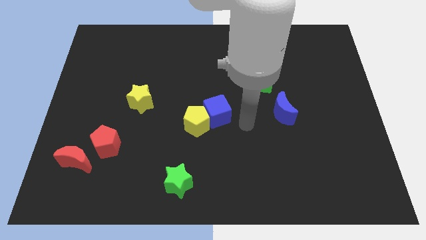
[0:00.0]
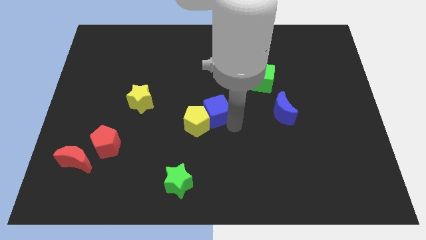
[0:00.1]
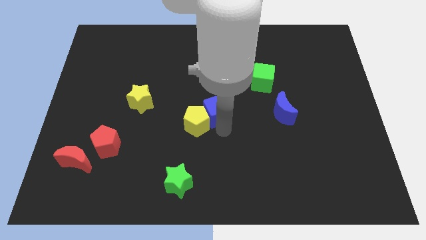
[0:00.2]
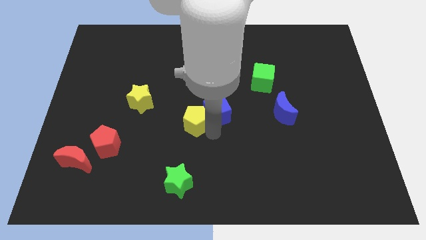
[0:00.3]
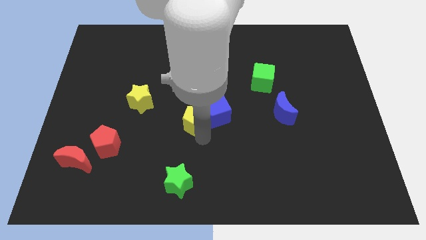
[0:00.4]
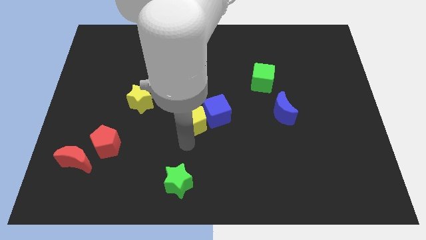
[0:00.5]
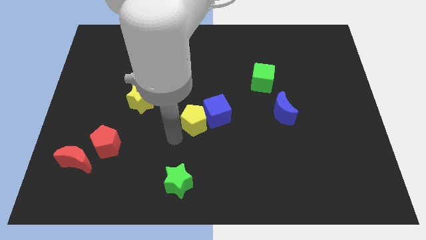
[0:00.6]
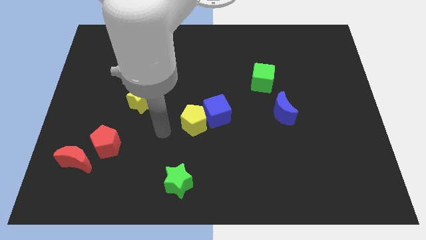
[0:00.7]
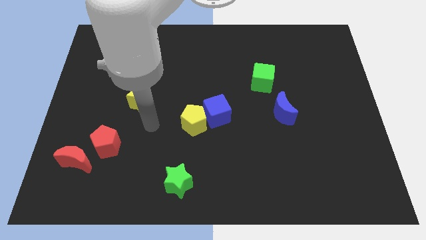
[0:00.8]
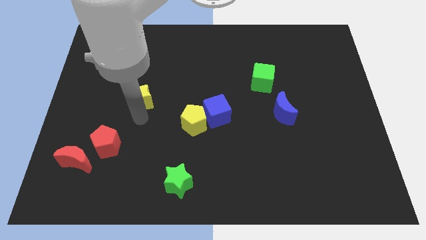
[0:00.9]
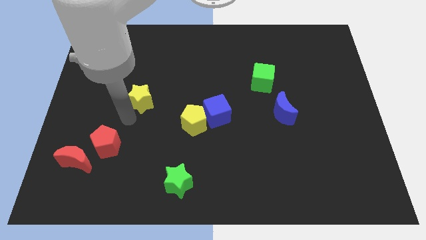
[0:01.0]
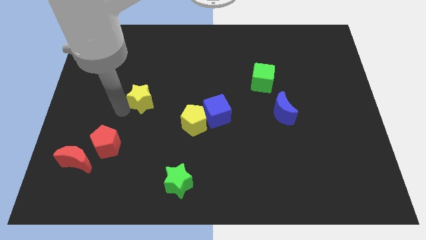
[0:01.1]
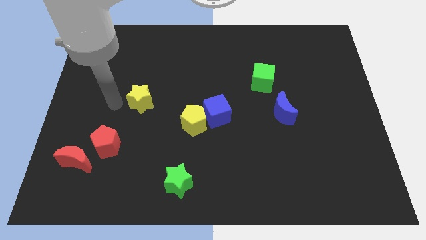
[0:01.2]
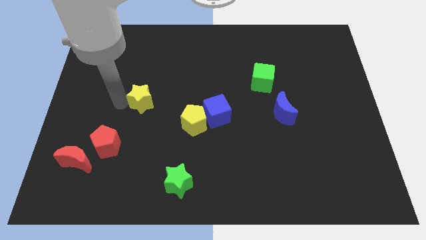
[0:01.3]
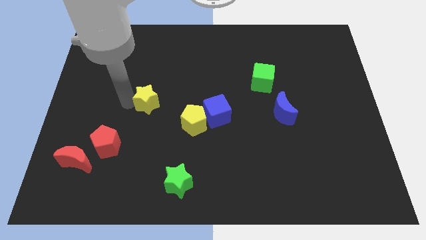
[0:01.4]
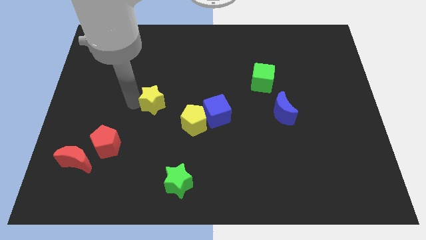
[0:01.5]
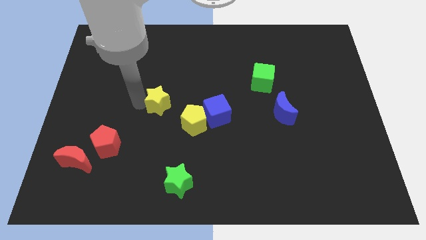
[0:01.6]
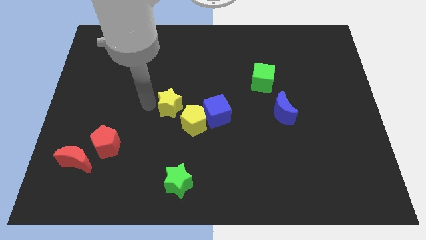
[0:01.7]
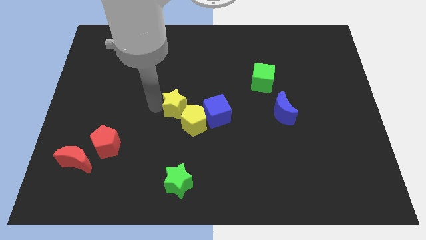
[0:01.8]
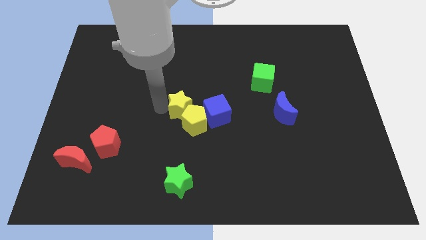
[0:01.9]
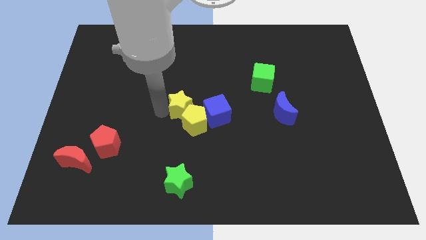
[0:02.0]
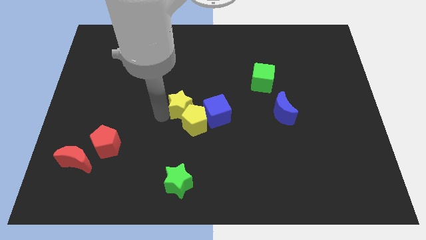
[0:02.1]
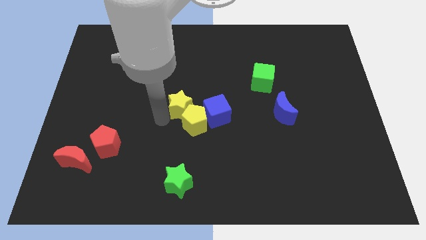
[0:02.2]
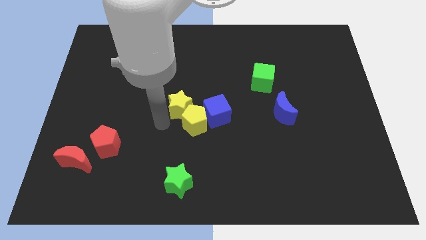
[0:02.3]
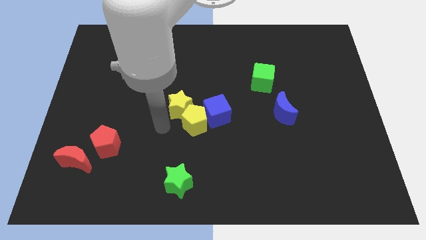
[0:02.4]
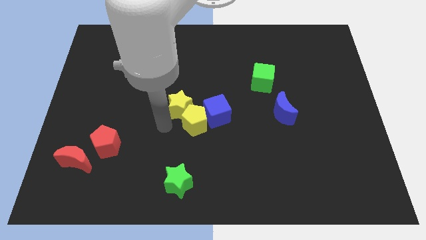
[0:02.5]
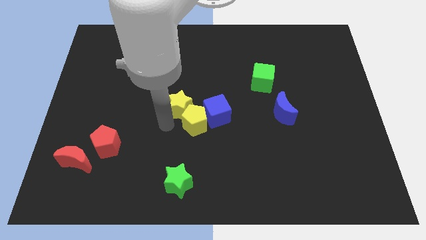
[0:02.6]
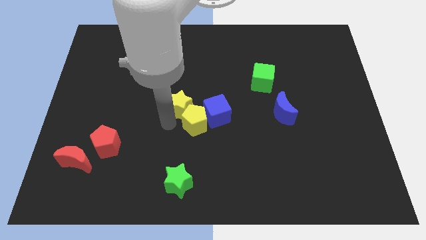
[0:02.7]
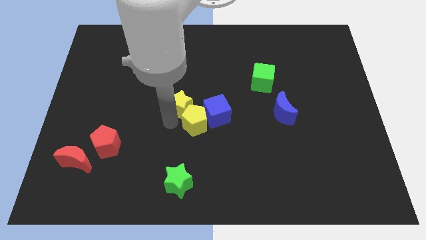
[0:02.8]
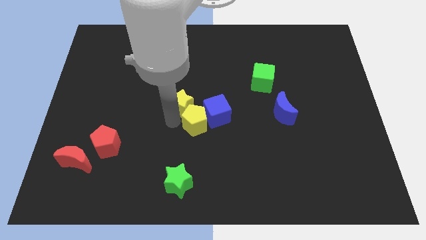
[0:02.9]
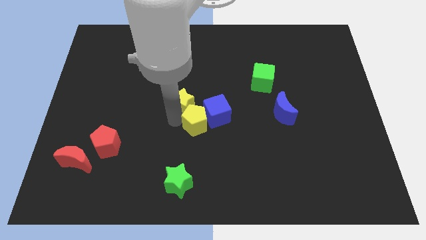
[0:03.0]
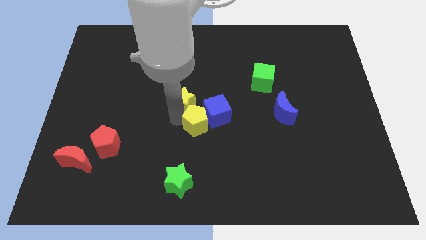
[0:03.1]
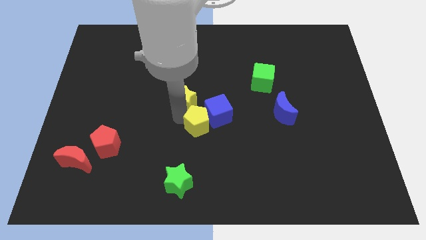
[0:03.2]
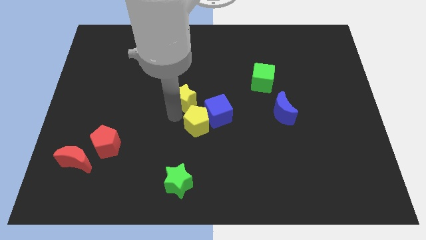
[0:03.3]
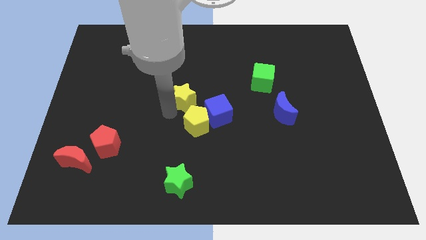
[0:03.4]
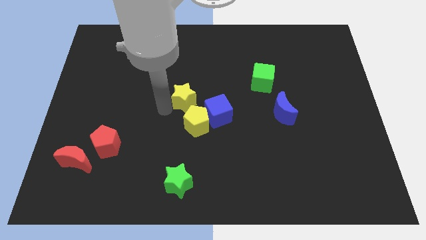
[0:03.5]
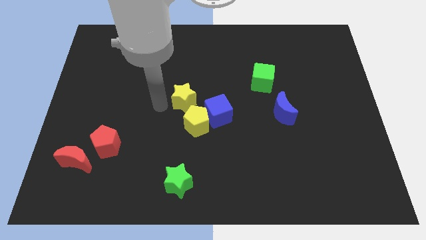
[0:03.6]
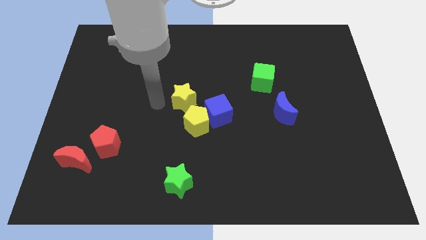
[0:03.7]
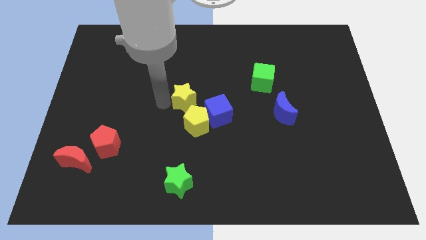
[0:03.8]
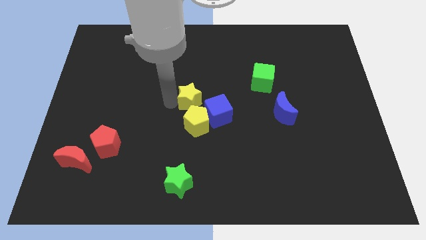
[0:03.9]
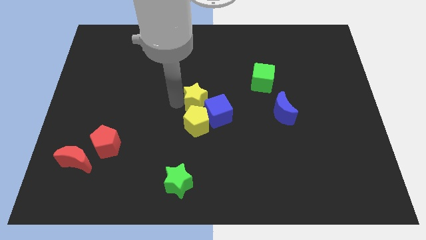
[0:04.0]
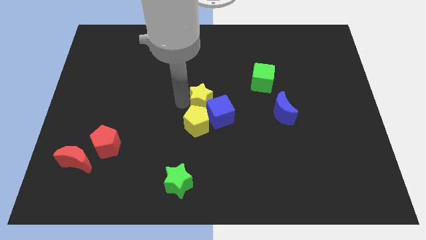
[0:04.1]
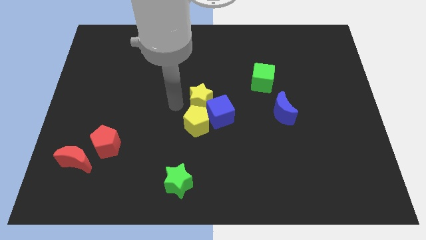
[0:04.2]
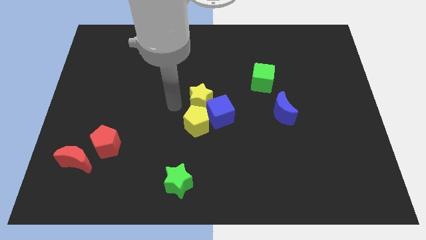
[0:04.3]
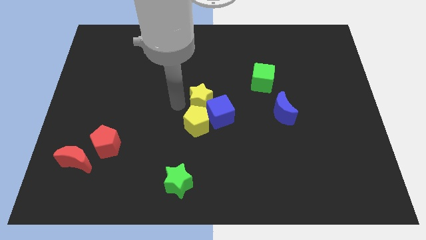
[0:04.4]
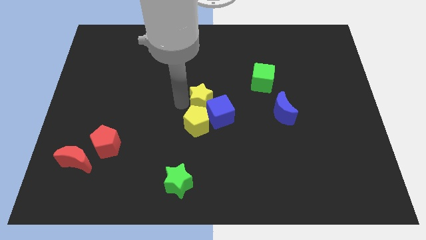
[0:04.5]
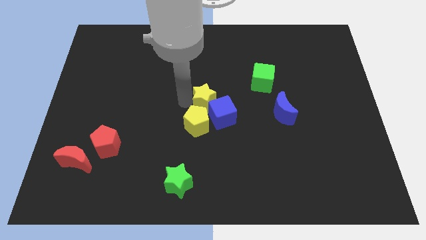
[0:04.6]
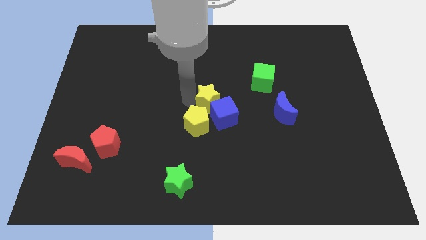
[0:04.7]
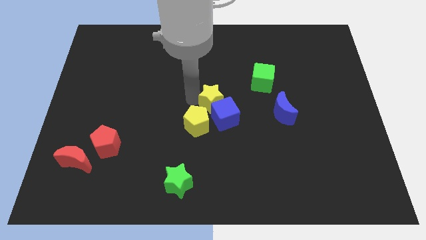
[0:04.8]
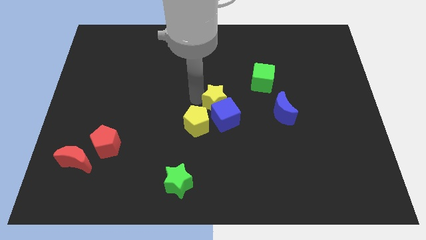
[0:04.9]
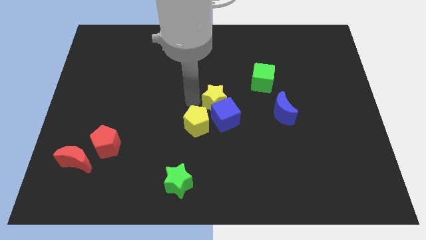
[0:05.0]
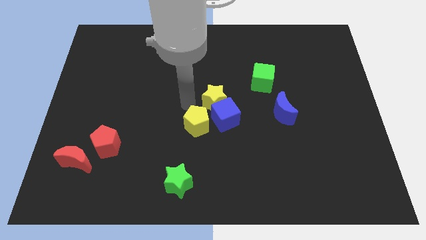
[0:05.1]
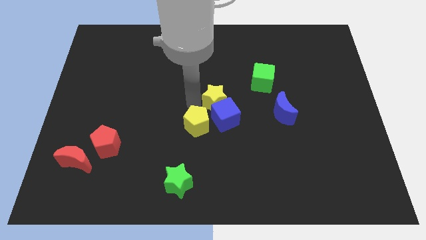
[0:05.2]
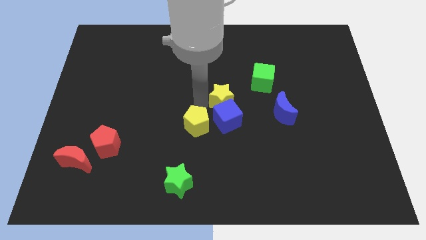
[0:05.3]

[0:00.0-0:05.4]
push the yellow star to the top right of the blue cube

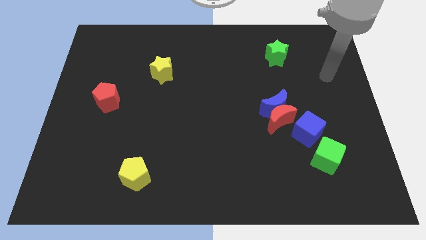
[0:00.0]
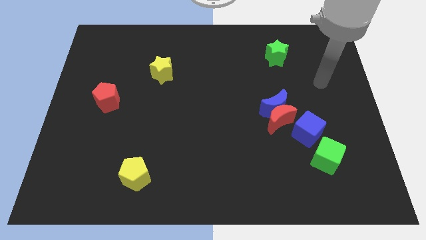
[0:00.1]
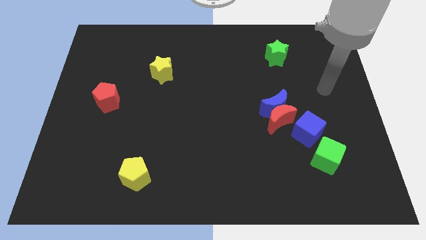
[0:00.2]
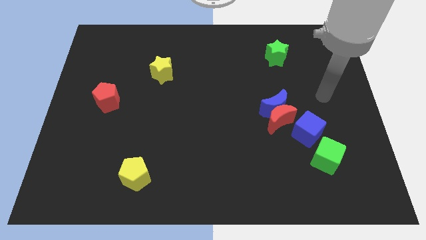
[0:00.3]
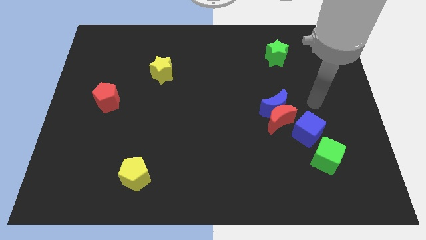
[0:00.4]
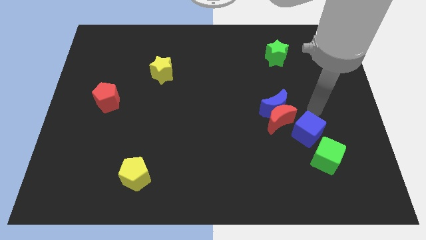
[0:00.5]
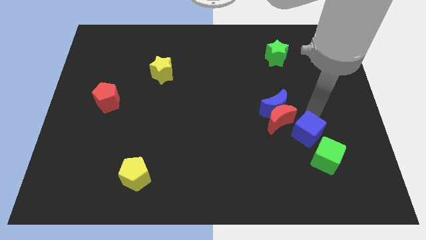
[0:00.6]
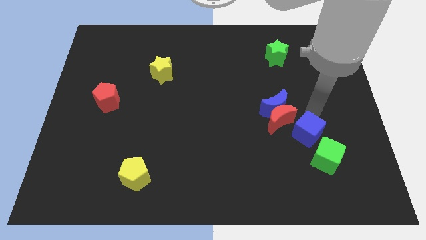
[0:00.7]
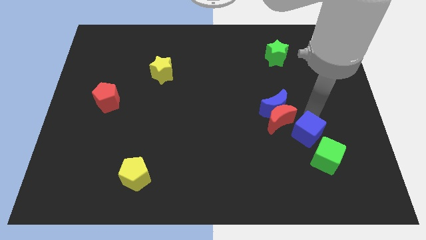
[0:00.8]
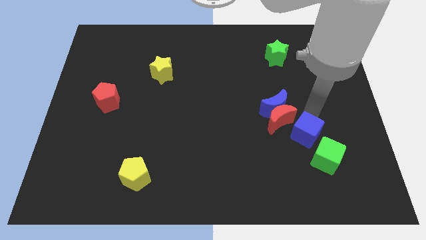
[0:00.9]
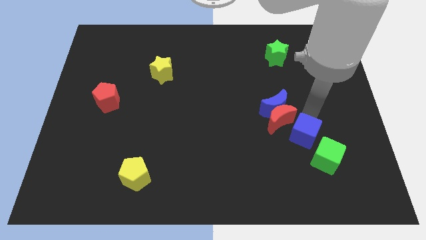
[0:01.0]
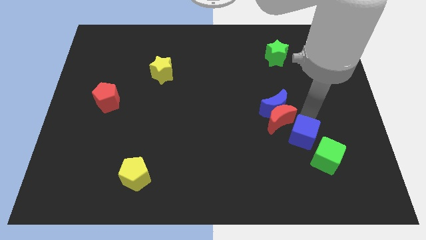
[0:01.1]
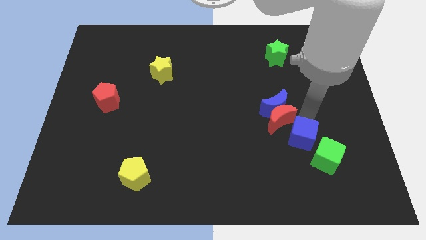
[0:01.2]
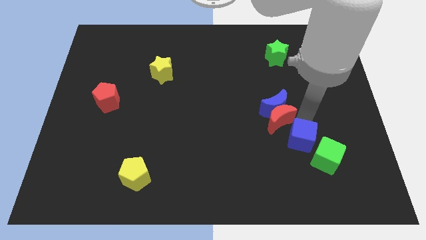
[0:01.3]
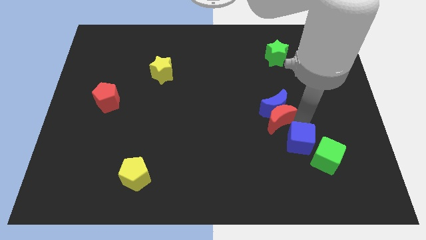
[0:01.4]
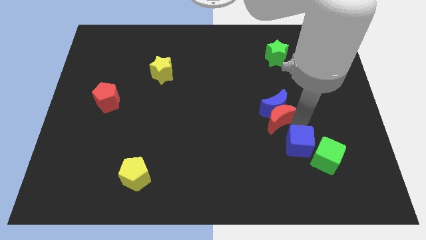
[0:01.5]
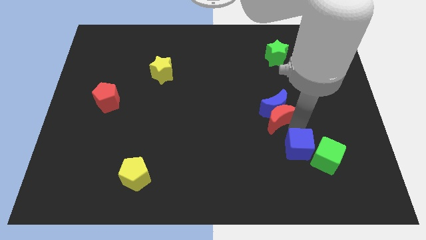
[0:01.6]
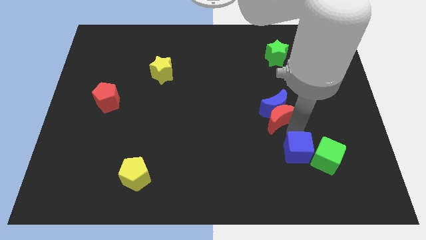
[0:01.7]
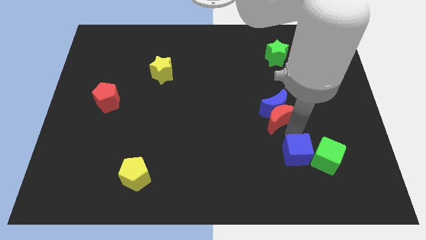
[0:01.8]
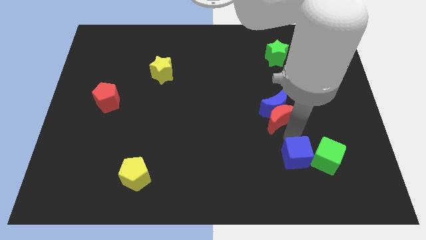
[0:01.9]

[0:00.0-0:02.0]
slide the blue cube to the bottom left of the green cube

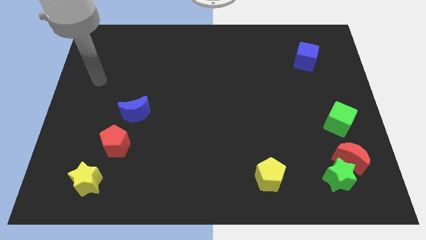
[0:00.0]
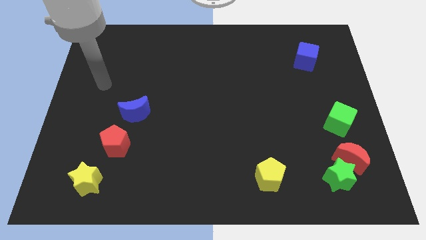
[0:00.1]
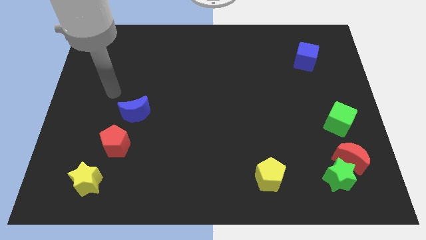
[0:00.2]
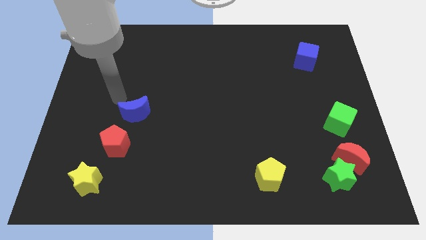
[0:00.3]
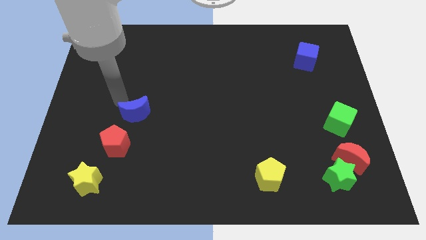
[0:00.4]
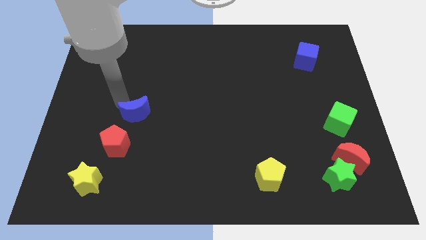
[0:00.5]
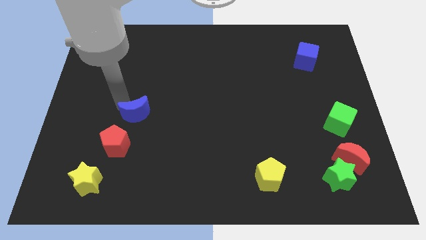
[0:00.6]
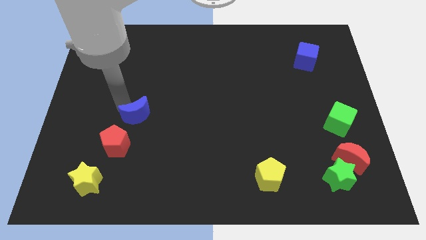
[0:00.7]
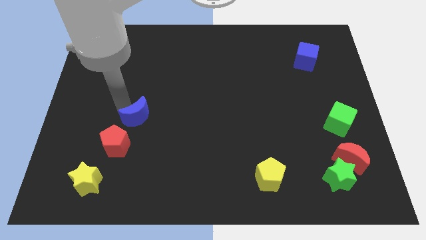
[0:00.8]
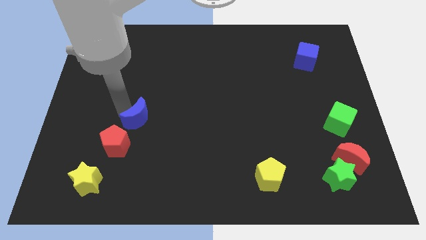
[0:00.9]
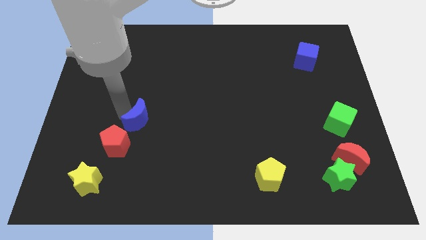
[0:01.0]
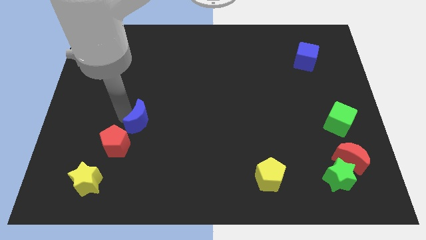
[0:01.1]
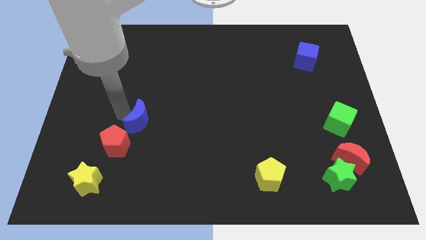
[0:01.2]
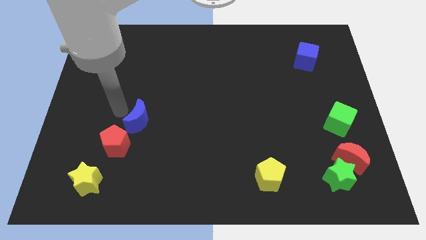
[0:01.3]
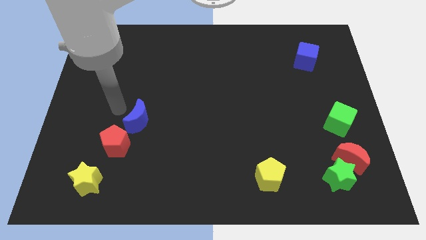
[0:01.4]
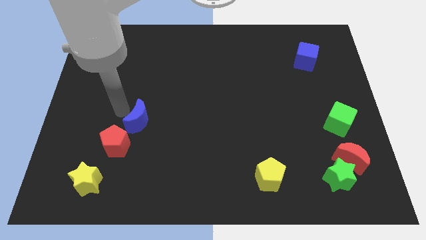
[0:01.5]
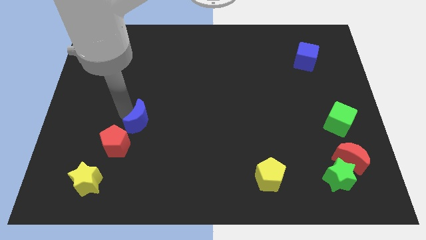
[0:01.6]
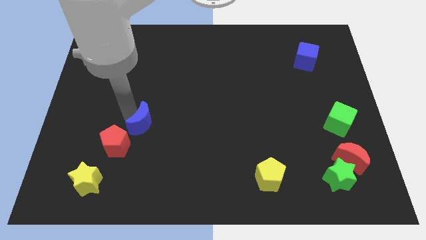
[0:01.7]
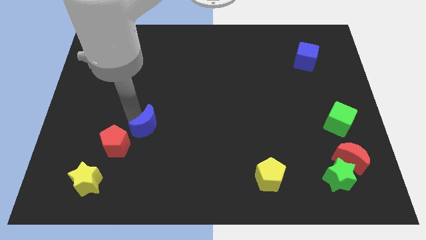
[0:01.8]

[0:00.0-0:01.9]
push the blue moon right of the red pentagon
